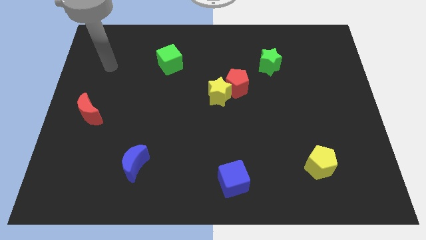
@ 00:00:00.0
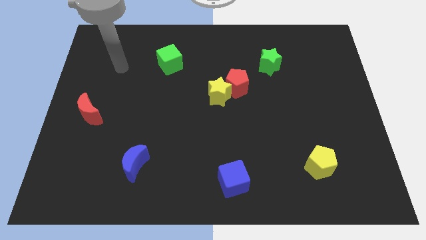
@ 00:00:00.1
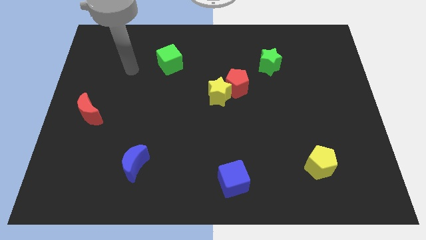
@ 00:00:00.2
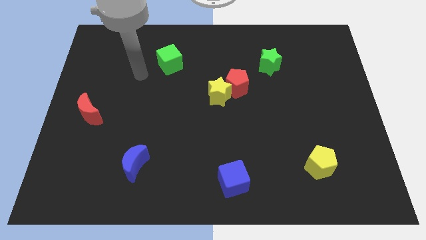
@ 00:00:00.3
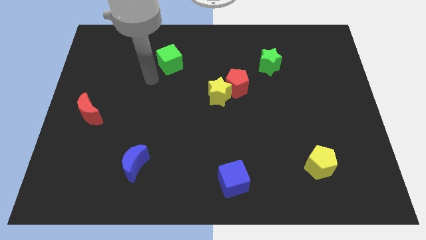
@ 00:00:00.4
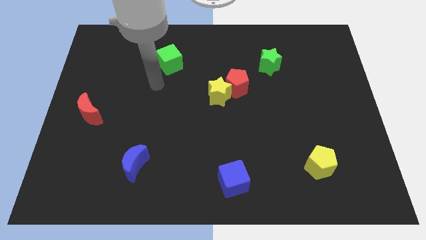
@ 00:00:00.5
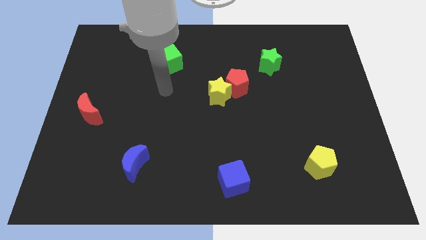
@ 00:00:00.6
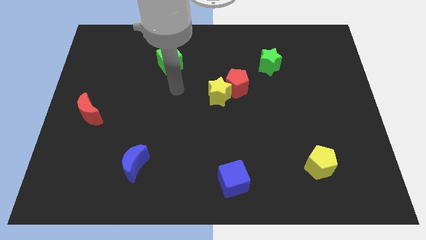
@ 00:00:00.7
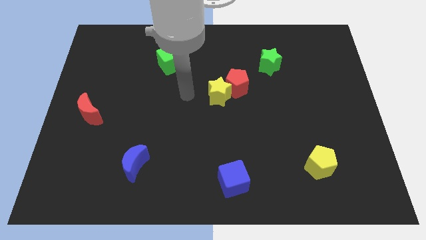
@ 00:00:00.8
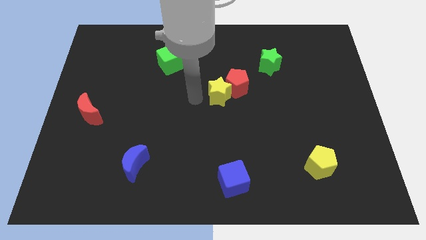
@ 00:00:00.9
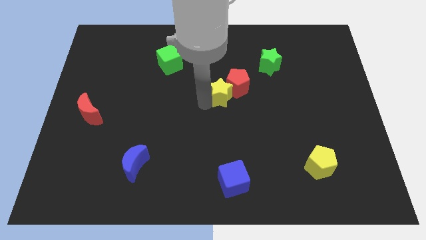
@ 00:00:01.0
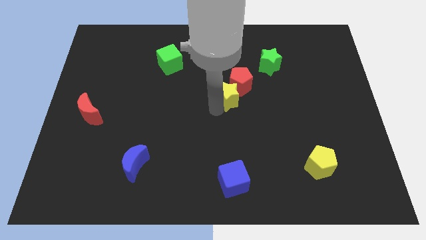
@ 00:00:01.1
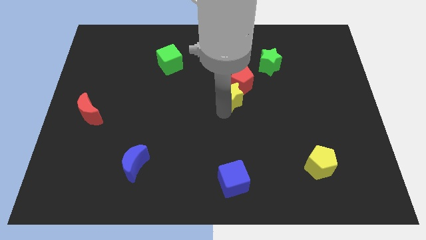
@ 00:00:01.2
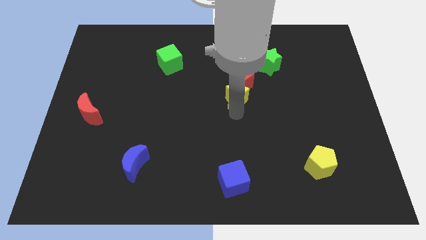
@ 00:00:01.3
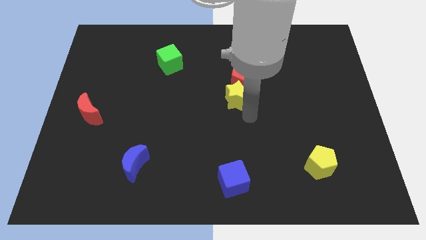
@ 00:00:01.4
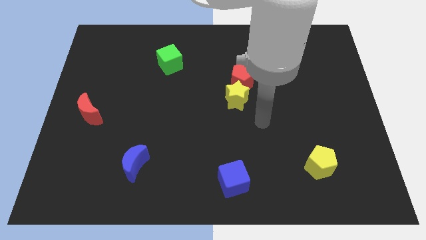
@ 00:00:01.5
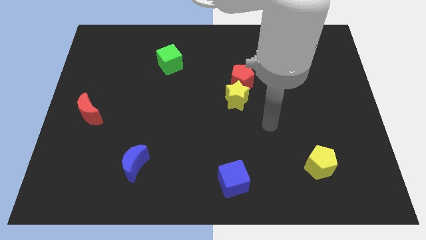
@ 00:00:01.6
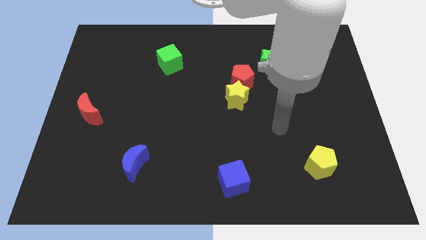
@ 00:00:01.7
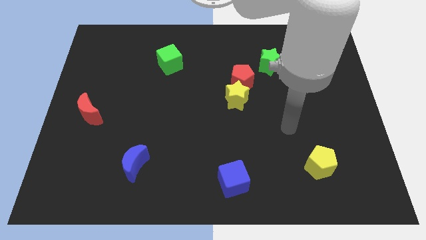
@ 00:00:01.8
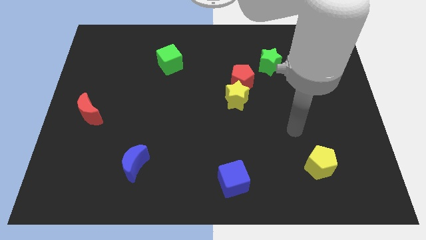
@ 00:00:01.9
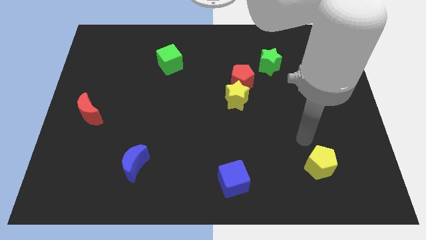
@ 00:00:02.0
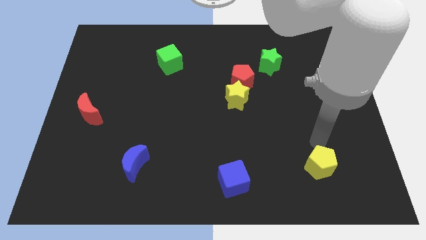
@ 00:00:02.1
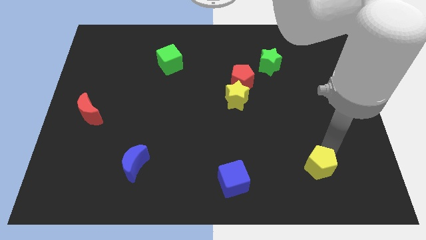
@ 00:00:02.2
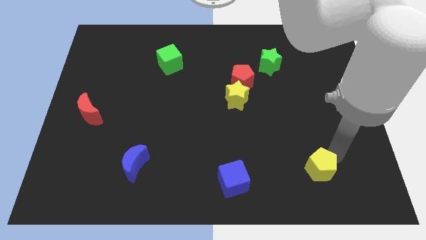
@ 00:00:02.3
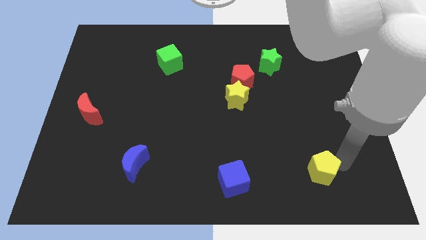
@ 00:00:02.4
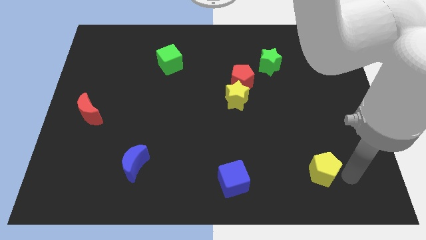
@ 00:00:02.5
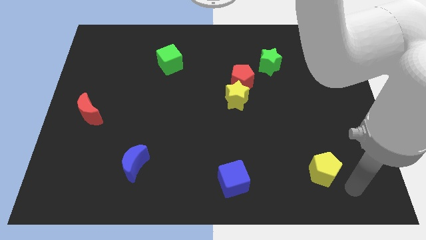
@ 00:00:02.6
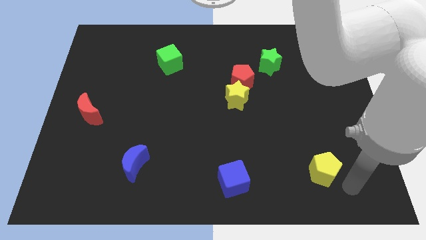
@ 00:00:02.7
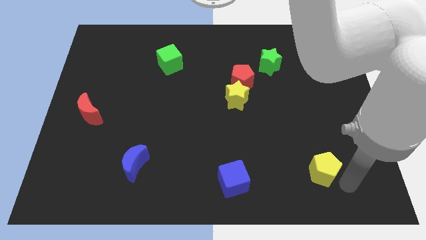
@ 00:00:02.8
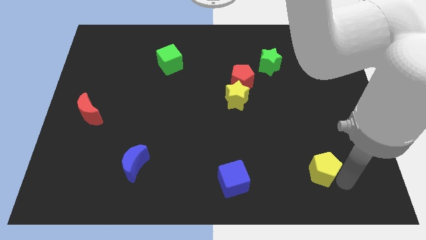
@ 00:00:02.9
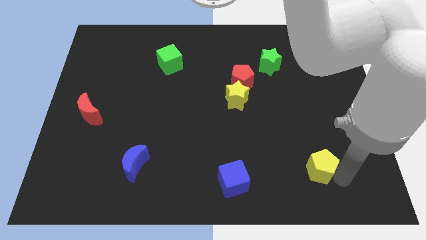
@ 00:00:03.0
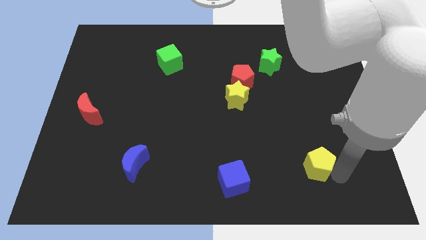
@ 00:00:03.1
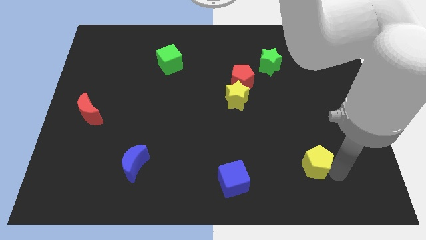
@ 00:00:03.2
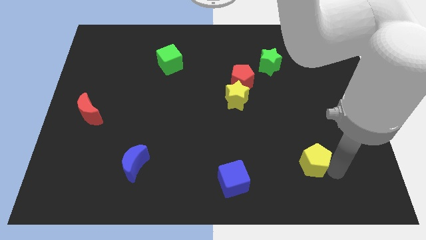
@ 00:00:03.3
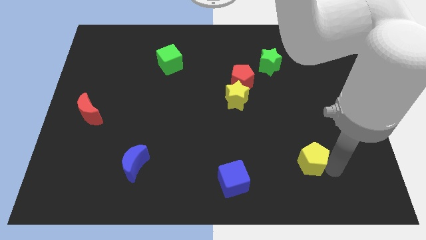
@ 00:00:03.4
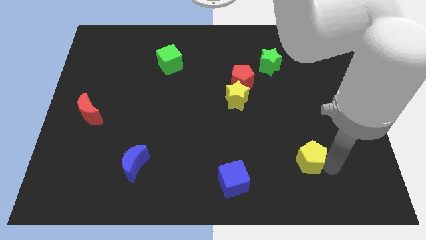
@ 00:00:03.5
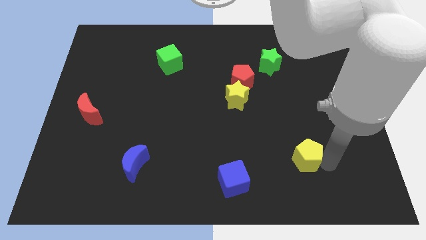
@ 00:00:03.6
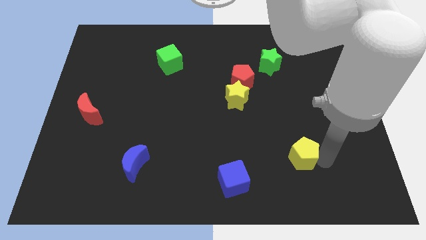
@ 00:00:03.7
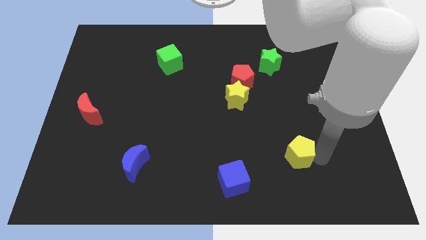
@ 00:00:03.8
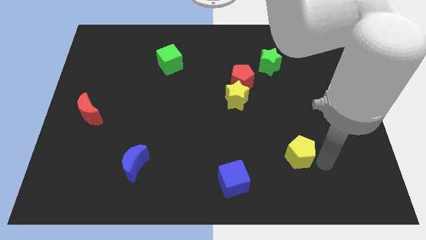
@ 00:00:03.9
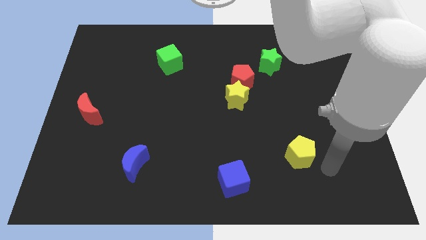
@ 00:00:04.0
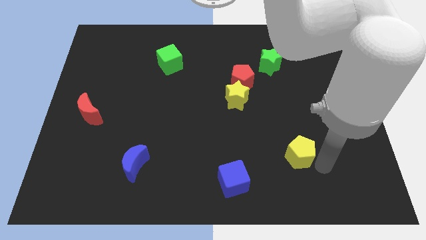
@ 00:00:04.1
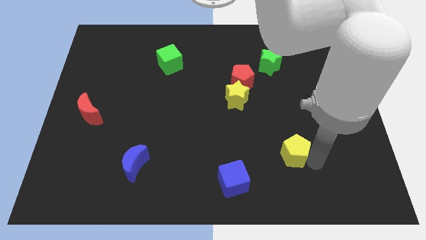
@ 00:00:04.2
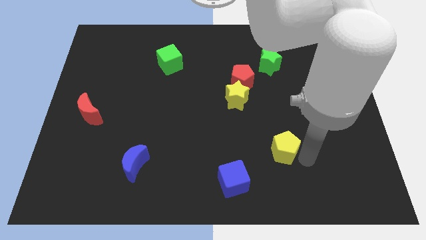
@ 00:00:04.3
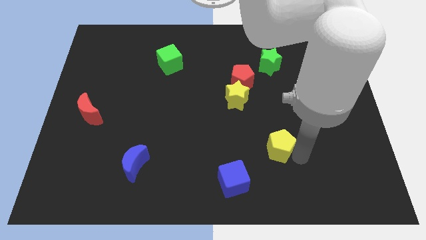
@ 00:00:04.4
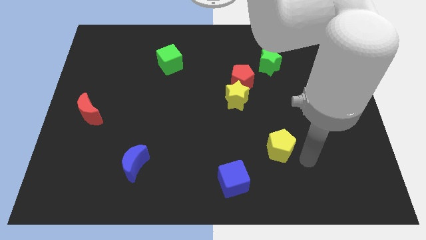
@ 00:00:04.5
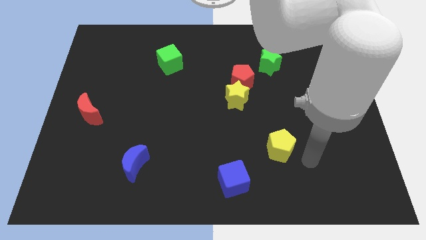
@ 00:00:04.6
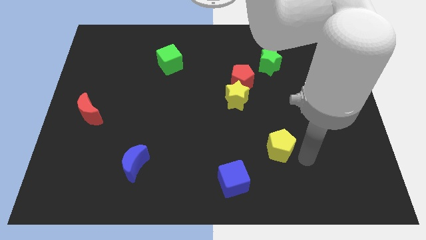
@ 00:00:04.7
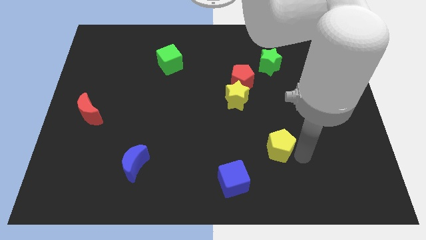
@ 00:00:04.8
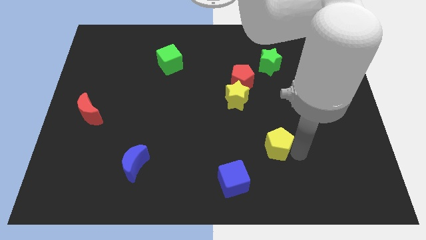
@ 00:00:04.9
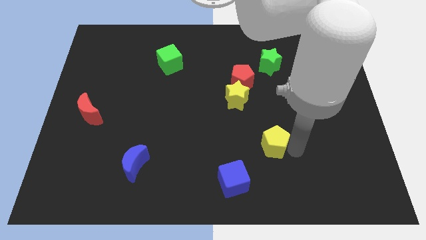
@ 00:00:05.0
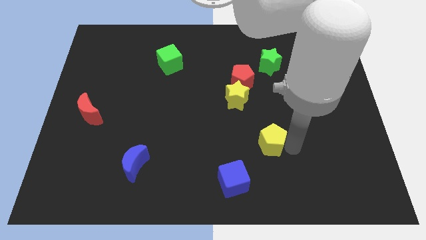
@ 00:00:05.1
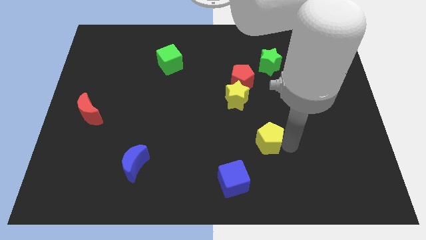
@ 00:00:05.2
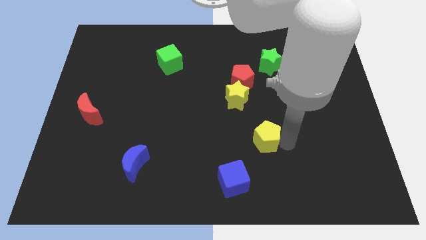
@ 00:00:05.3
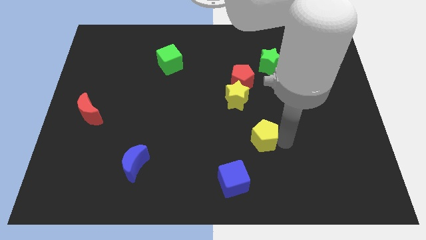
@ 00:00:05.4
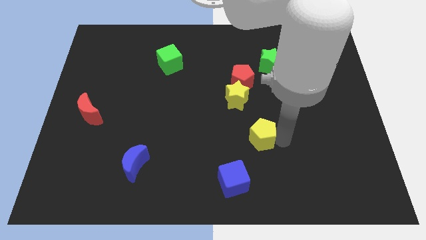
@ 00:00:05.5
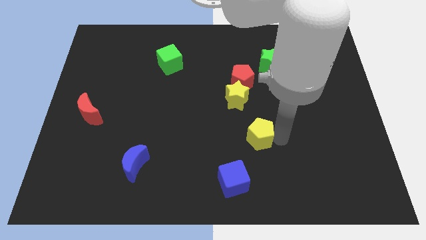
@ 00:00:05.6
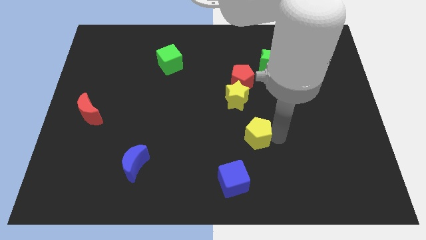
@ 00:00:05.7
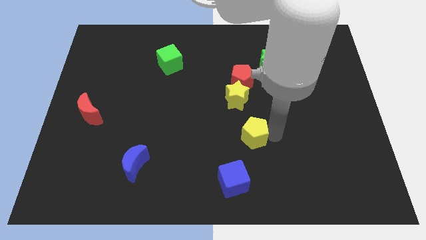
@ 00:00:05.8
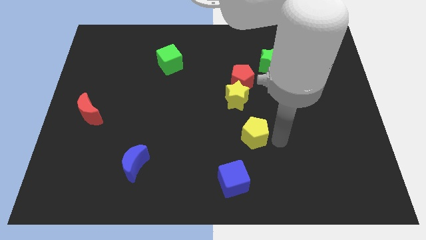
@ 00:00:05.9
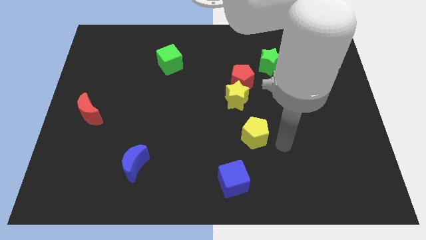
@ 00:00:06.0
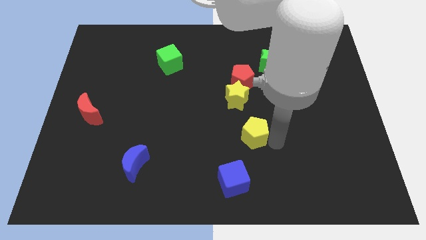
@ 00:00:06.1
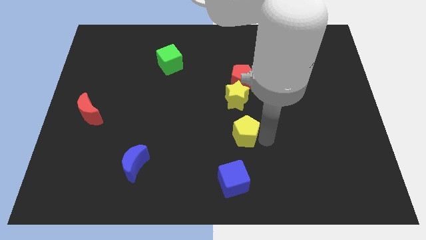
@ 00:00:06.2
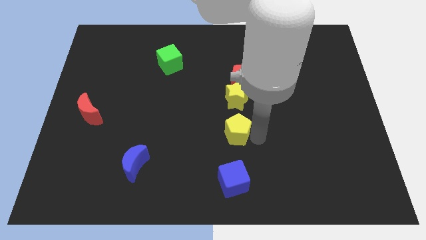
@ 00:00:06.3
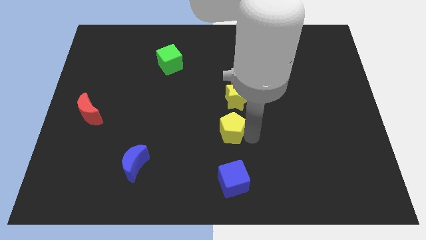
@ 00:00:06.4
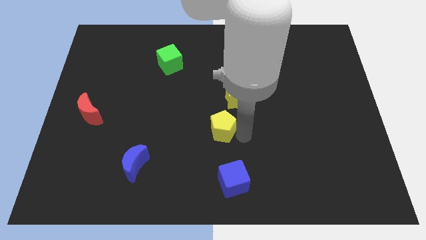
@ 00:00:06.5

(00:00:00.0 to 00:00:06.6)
push the yellow pentagon to the bottom left side of the yellow star

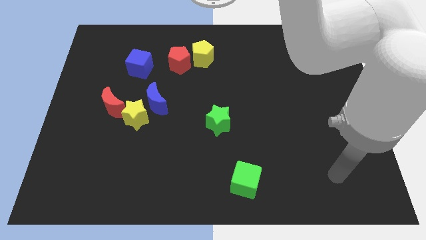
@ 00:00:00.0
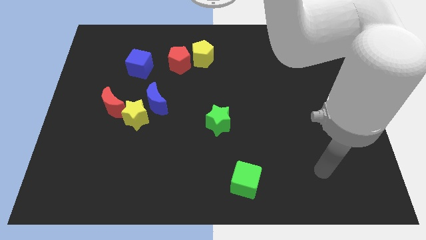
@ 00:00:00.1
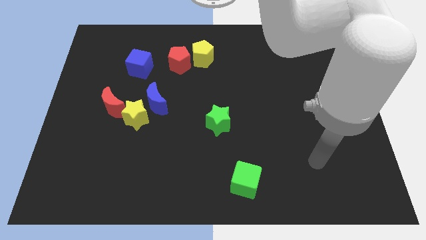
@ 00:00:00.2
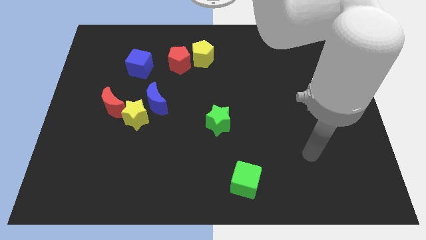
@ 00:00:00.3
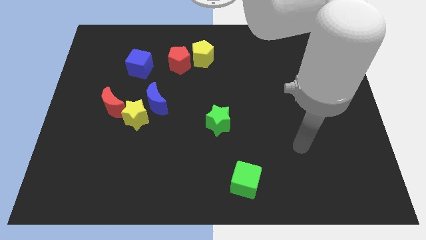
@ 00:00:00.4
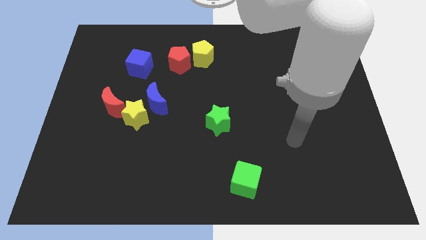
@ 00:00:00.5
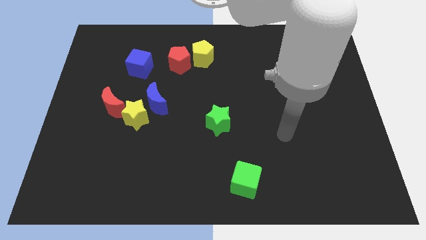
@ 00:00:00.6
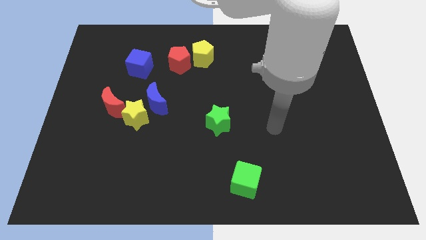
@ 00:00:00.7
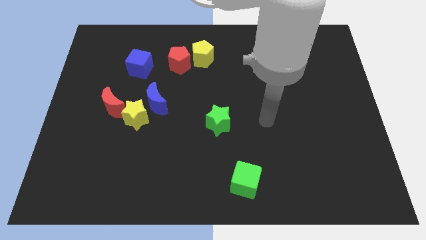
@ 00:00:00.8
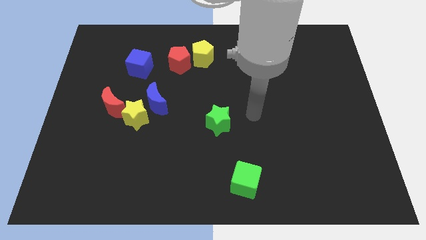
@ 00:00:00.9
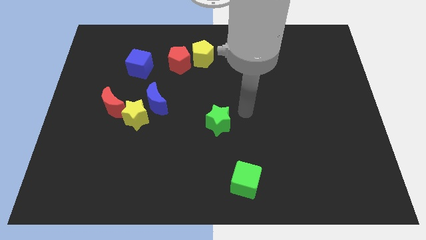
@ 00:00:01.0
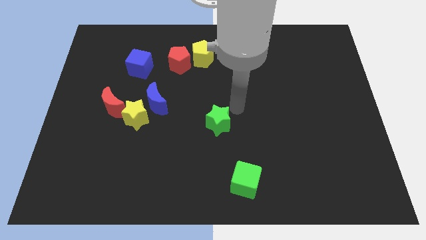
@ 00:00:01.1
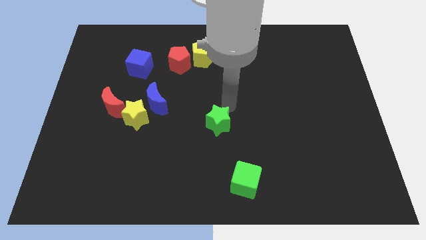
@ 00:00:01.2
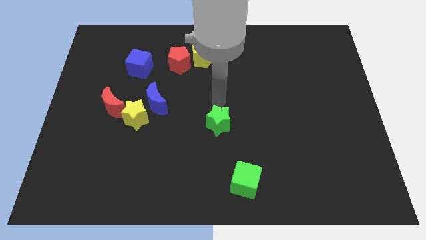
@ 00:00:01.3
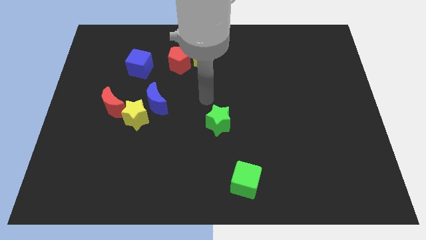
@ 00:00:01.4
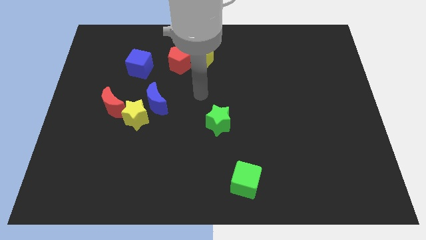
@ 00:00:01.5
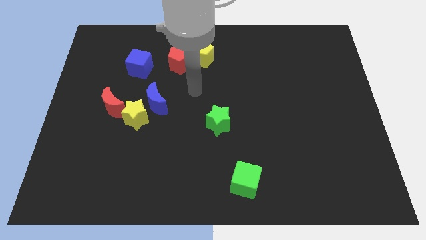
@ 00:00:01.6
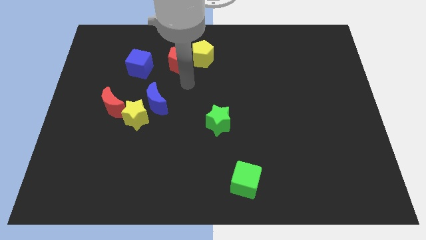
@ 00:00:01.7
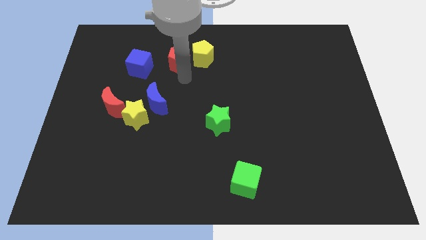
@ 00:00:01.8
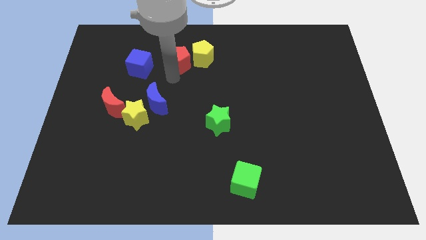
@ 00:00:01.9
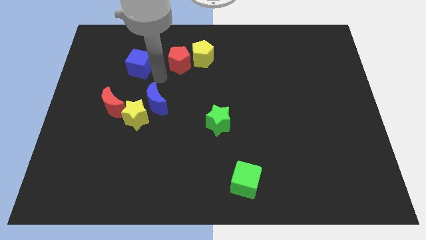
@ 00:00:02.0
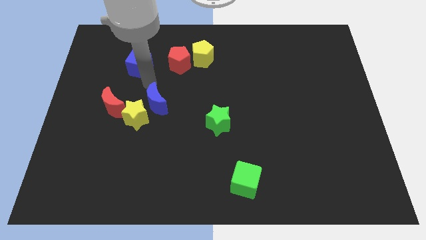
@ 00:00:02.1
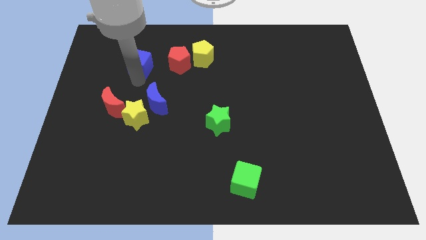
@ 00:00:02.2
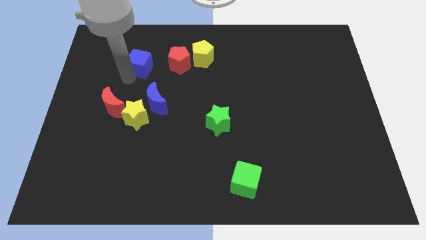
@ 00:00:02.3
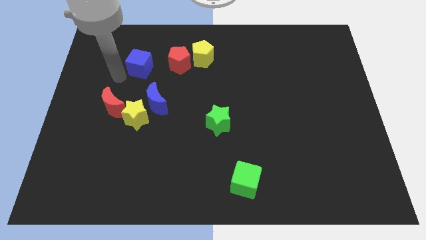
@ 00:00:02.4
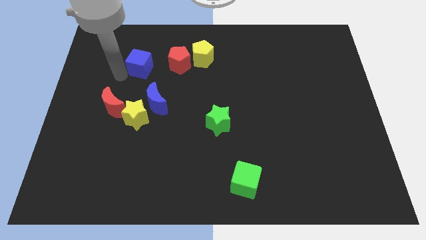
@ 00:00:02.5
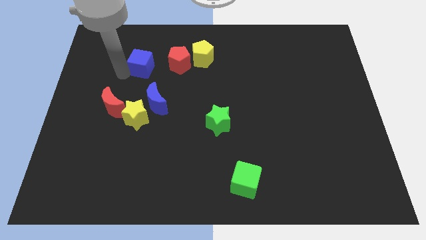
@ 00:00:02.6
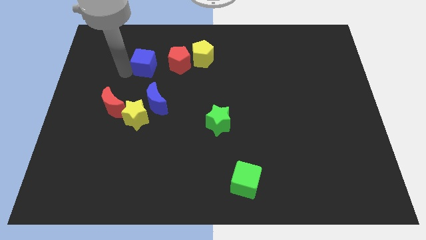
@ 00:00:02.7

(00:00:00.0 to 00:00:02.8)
push the blue cube just left of the yellow pentagon
